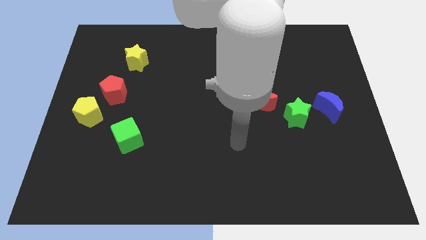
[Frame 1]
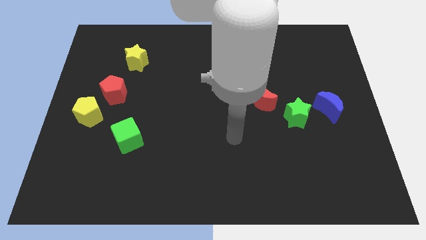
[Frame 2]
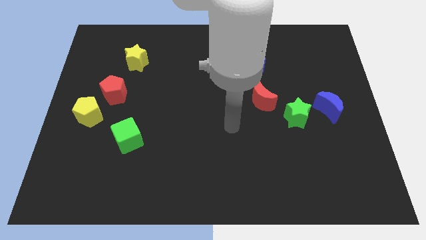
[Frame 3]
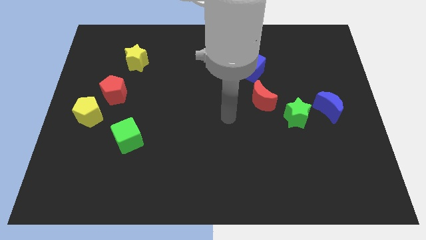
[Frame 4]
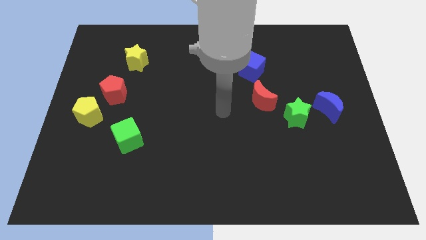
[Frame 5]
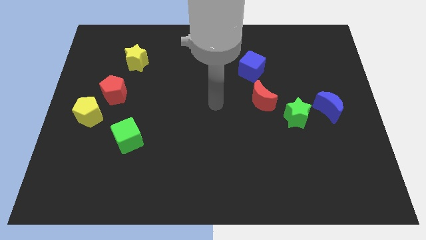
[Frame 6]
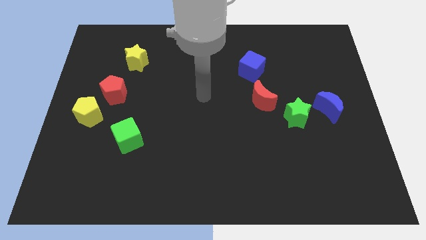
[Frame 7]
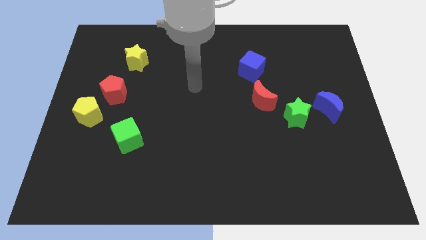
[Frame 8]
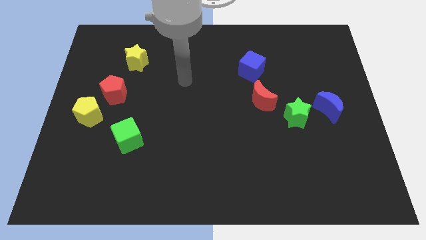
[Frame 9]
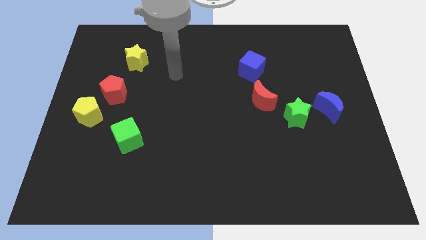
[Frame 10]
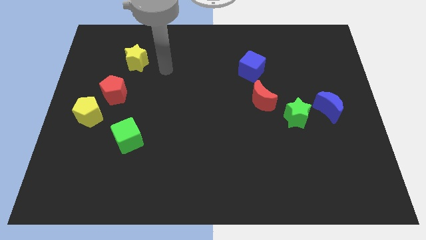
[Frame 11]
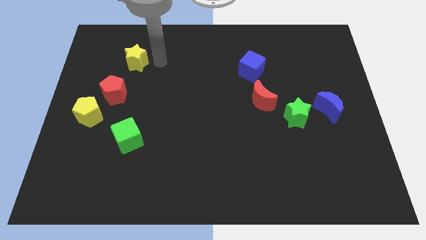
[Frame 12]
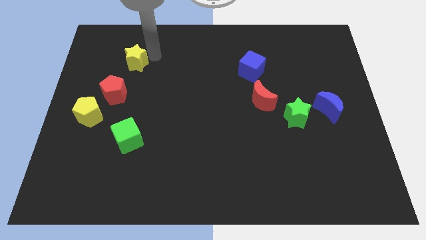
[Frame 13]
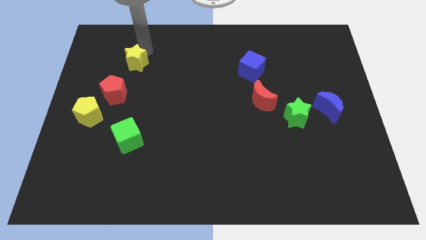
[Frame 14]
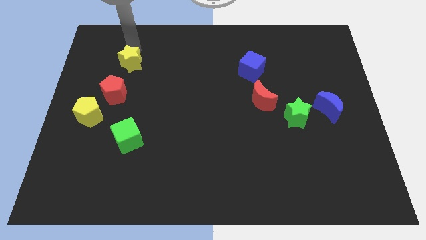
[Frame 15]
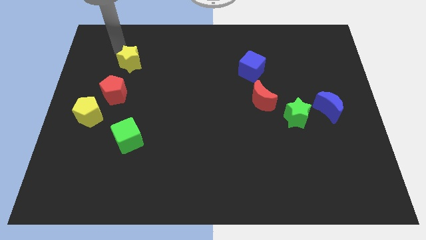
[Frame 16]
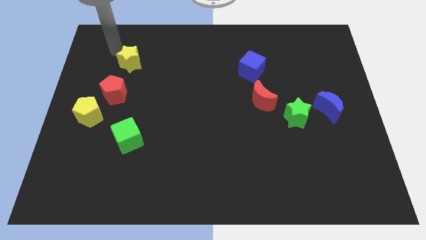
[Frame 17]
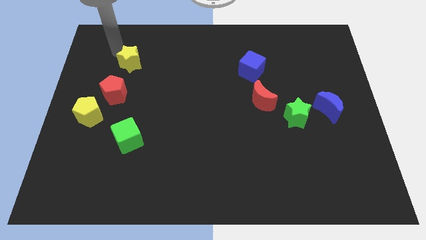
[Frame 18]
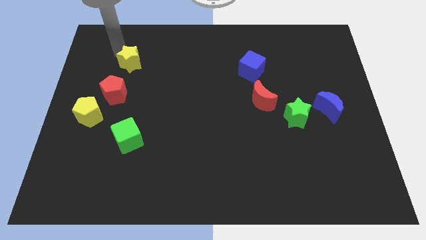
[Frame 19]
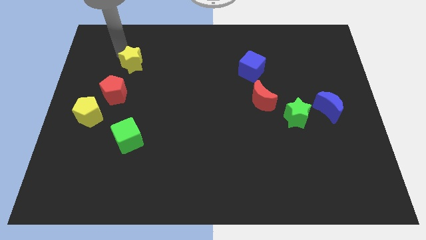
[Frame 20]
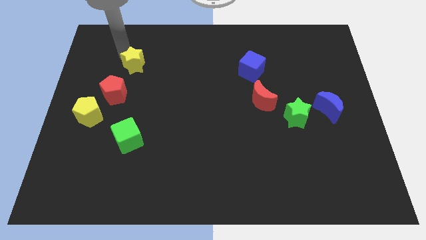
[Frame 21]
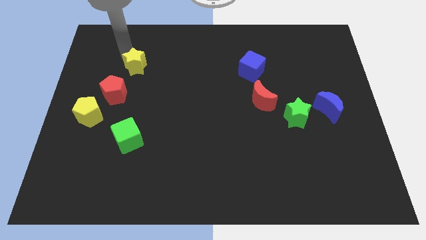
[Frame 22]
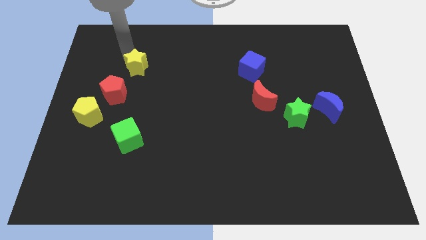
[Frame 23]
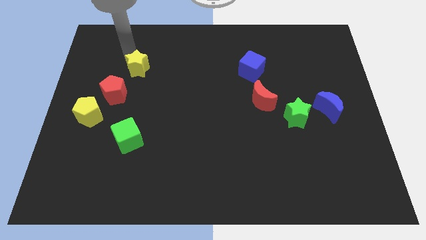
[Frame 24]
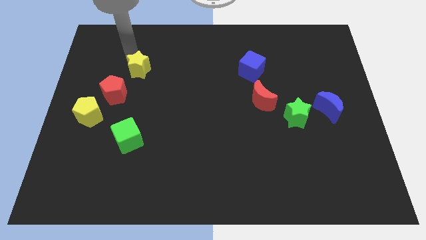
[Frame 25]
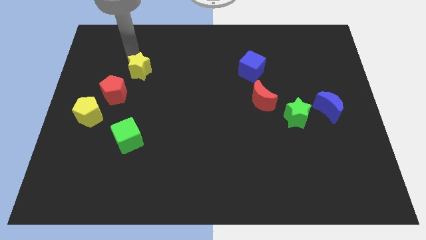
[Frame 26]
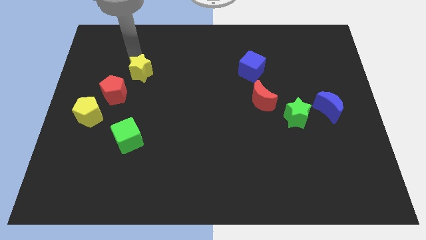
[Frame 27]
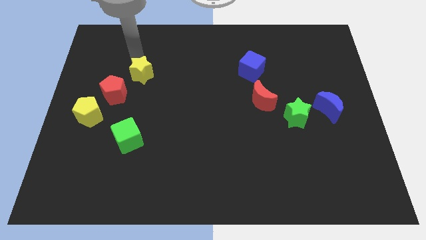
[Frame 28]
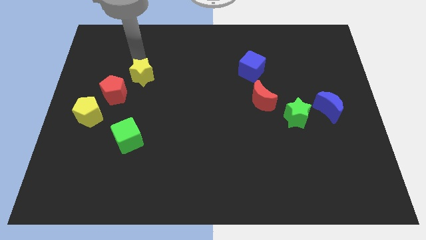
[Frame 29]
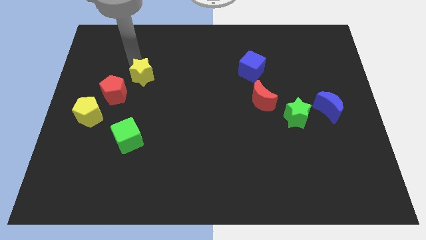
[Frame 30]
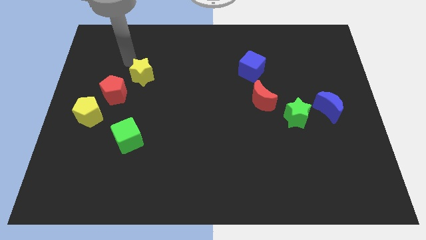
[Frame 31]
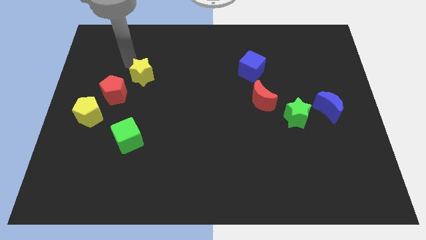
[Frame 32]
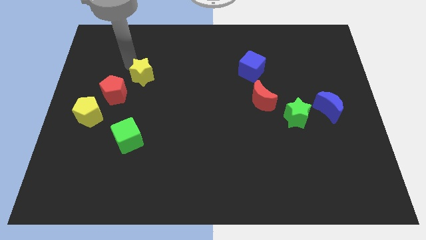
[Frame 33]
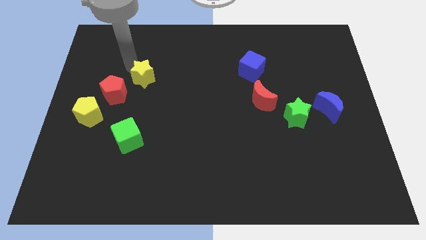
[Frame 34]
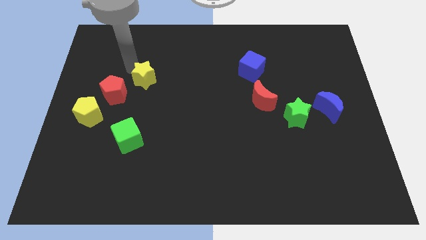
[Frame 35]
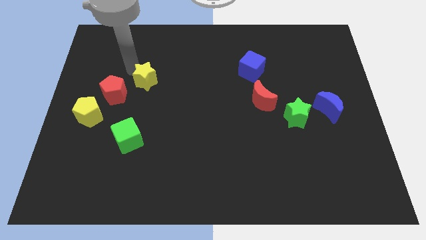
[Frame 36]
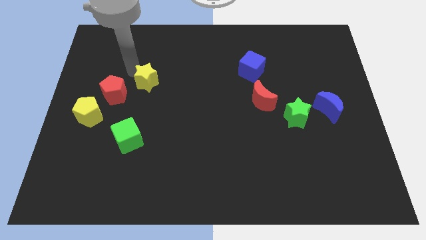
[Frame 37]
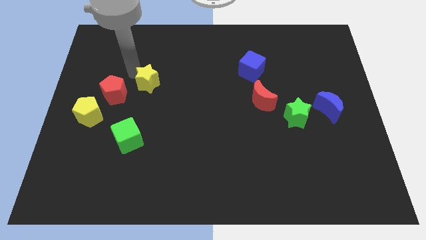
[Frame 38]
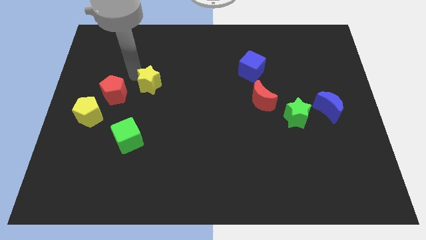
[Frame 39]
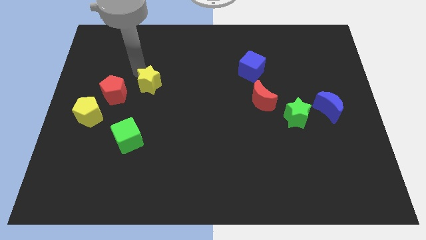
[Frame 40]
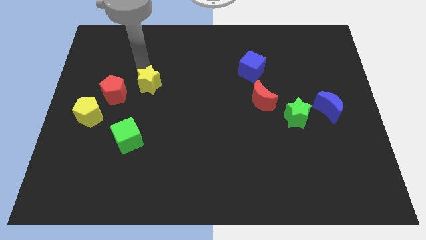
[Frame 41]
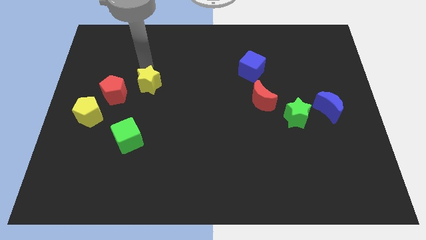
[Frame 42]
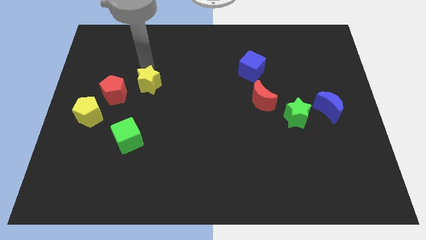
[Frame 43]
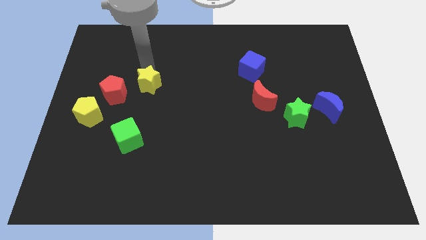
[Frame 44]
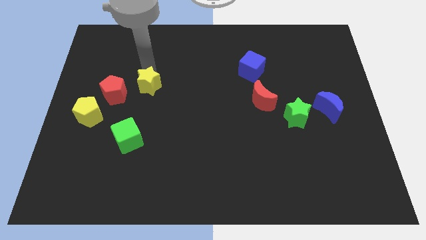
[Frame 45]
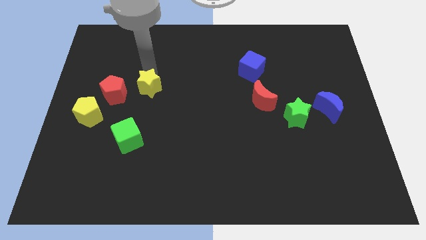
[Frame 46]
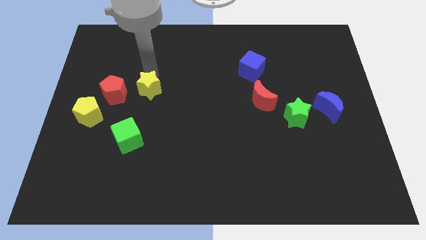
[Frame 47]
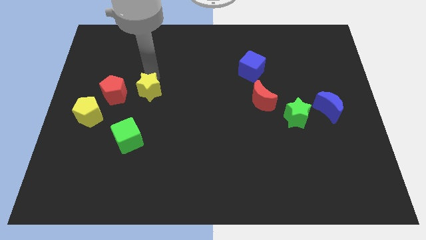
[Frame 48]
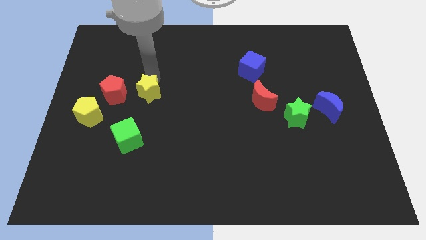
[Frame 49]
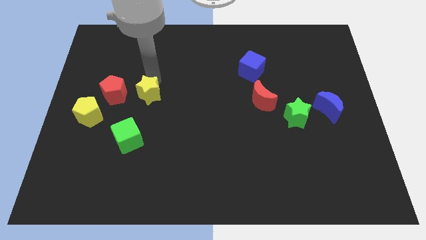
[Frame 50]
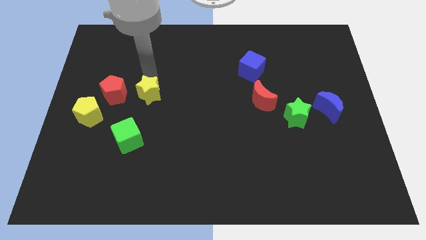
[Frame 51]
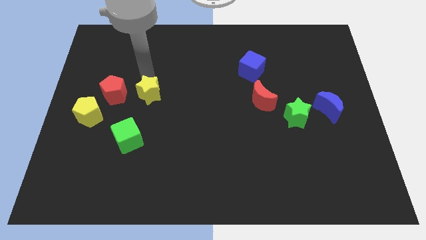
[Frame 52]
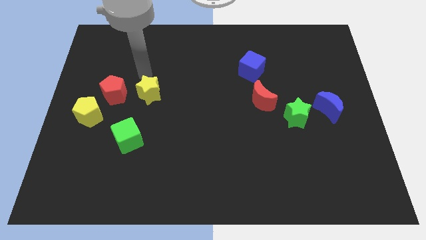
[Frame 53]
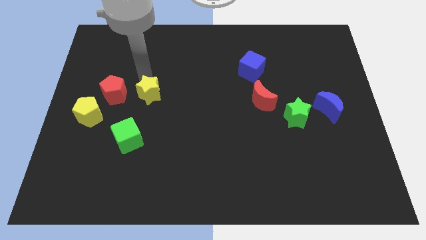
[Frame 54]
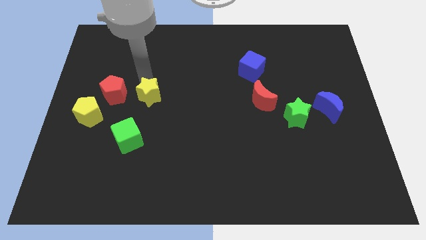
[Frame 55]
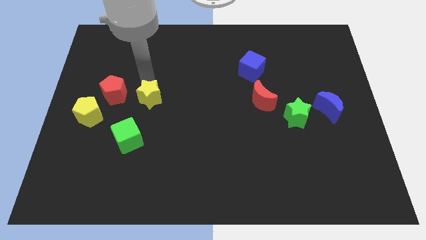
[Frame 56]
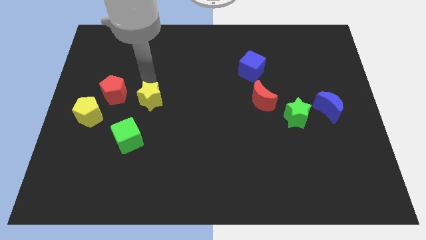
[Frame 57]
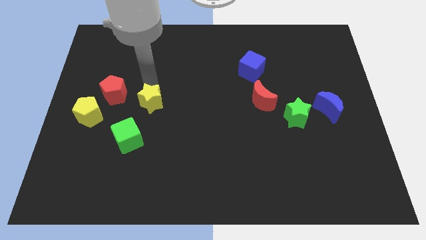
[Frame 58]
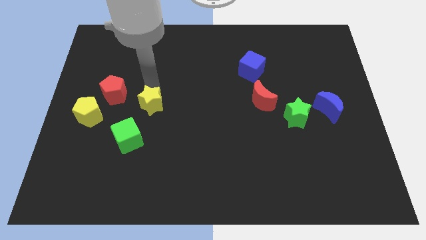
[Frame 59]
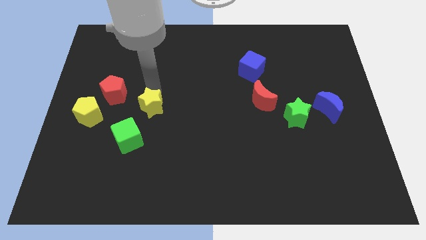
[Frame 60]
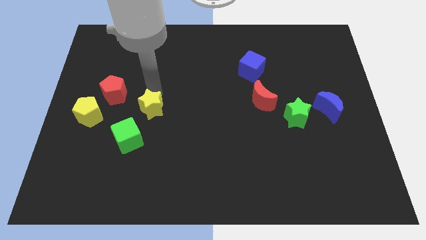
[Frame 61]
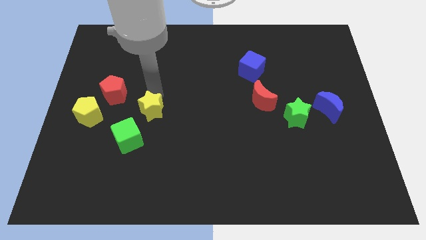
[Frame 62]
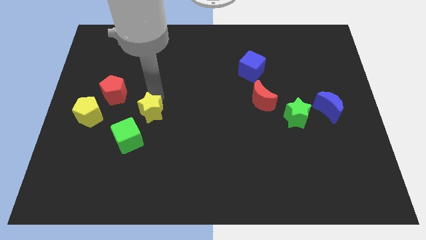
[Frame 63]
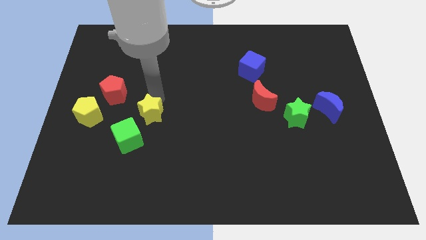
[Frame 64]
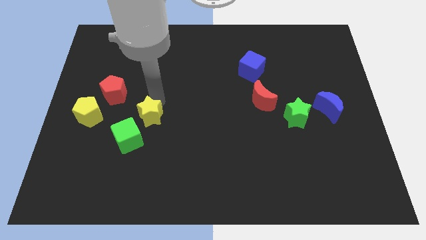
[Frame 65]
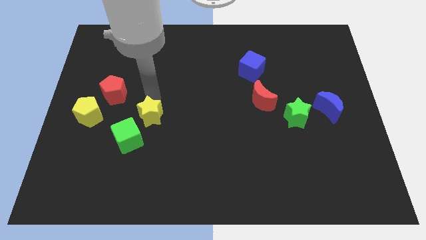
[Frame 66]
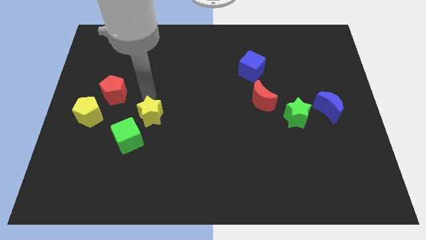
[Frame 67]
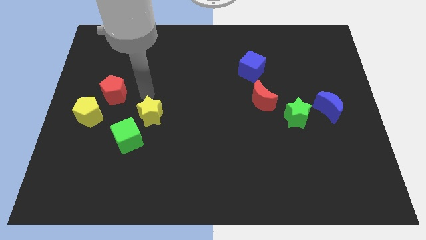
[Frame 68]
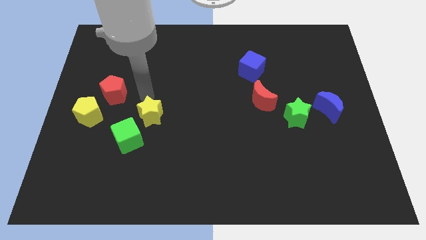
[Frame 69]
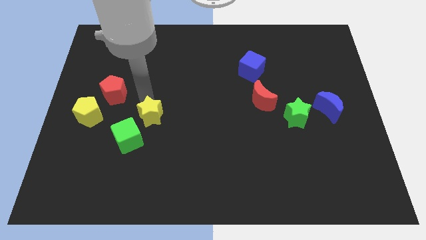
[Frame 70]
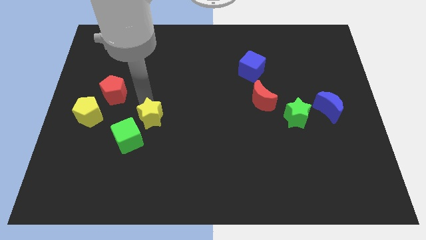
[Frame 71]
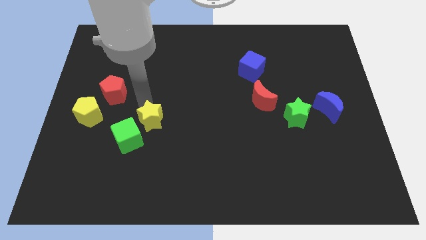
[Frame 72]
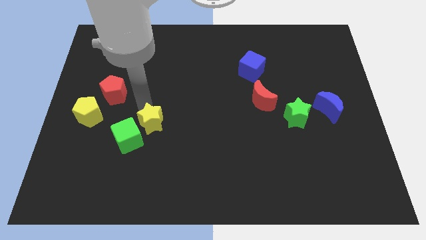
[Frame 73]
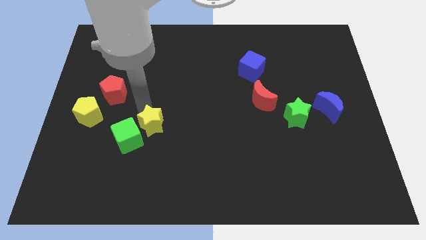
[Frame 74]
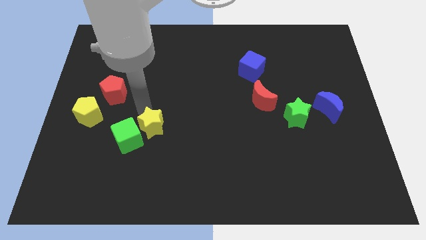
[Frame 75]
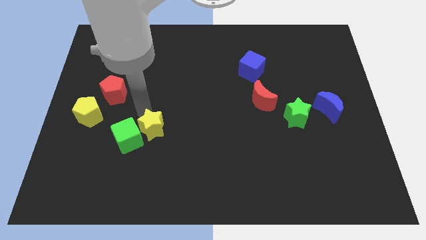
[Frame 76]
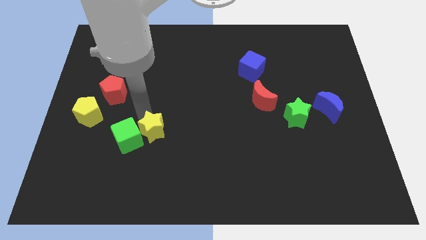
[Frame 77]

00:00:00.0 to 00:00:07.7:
slide the yellow star downwards

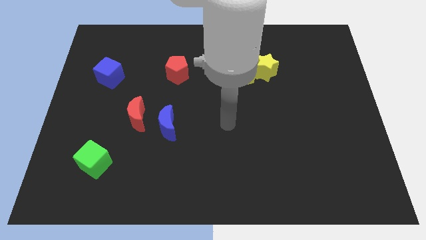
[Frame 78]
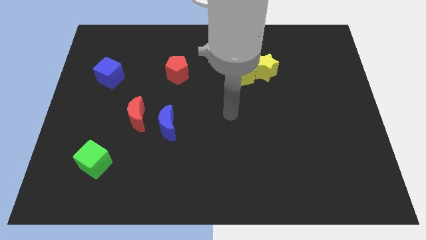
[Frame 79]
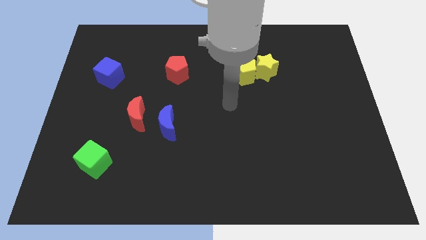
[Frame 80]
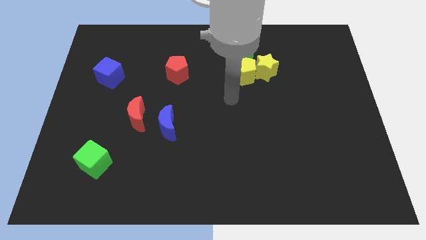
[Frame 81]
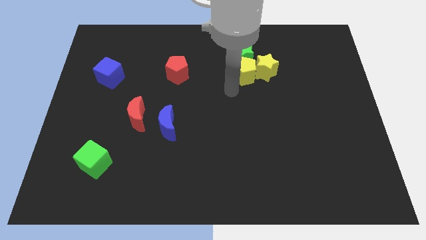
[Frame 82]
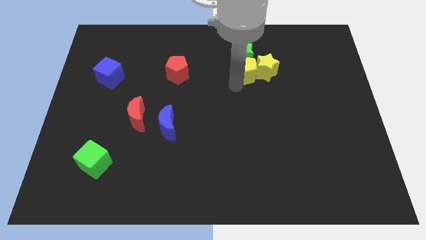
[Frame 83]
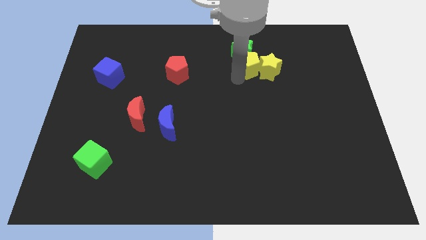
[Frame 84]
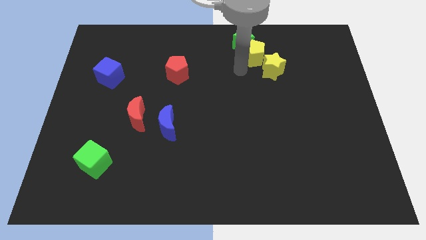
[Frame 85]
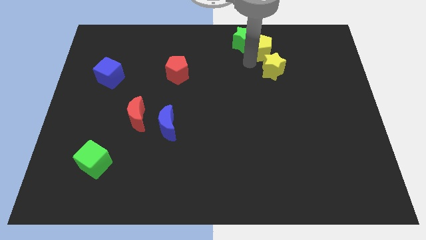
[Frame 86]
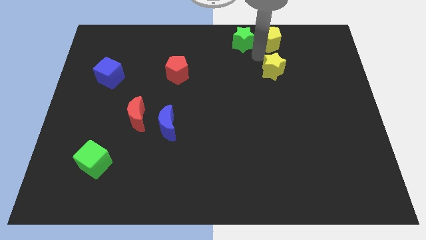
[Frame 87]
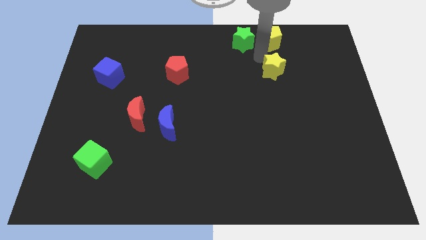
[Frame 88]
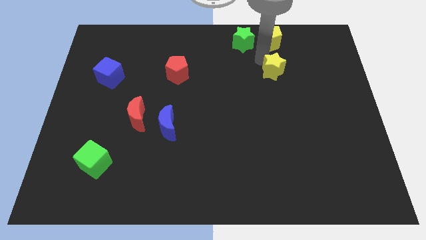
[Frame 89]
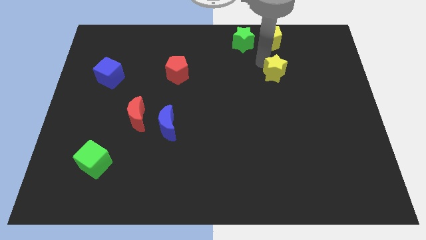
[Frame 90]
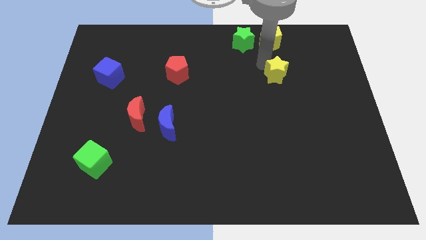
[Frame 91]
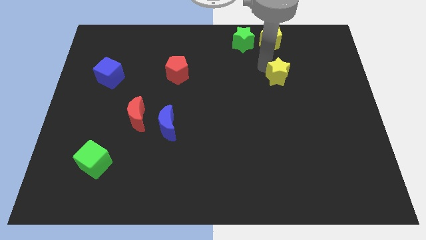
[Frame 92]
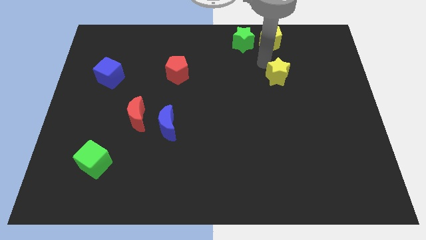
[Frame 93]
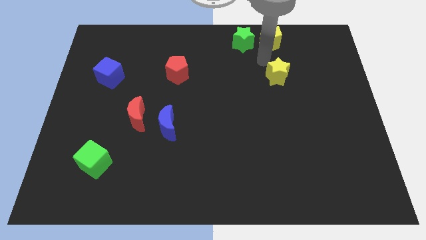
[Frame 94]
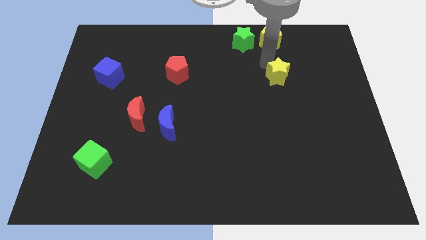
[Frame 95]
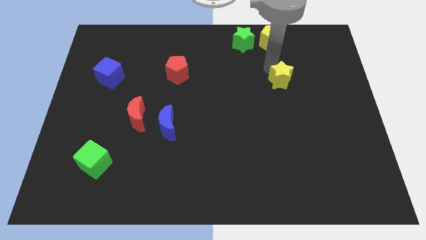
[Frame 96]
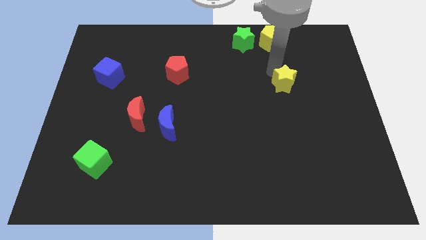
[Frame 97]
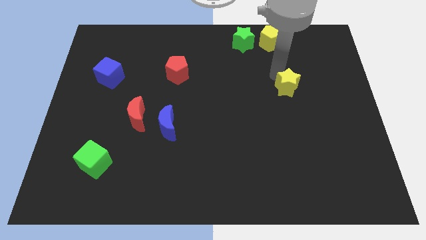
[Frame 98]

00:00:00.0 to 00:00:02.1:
push the yellow star slightly downwards and to the right
